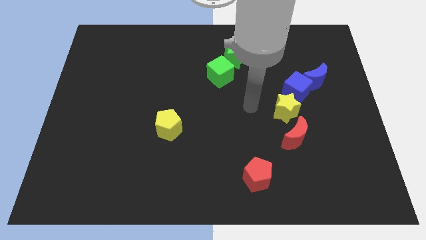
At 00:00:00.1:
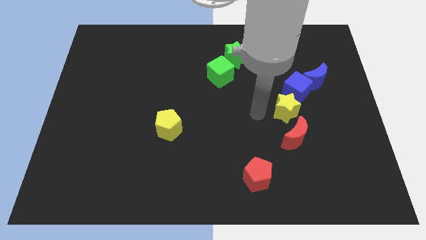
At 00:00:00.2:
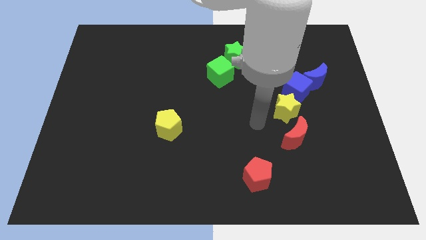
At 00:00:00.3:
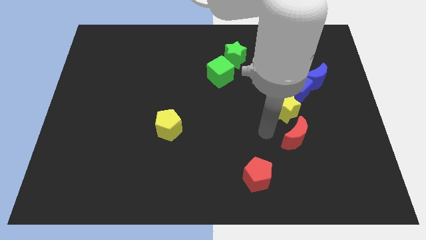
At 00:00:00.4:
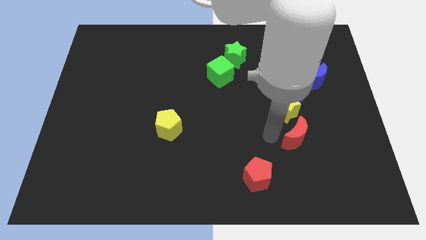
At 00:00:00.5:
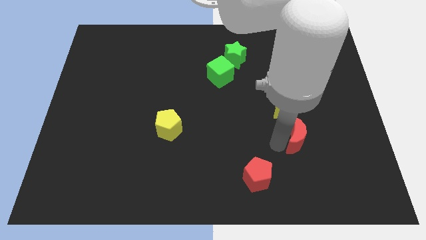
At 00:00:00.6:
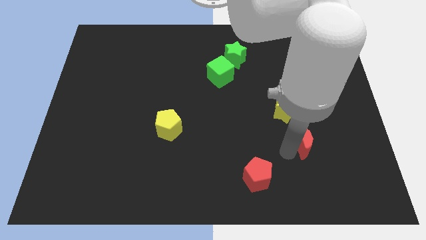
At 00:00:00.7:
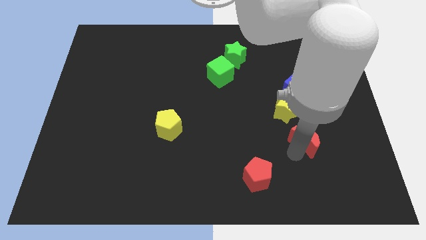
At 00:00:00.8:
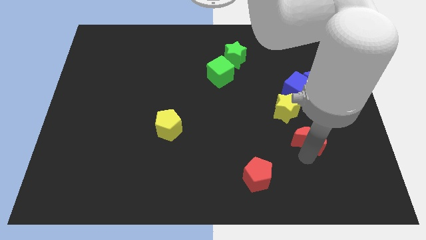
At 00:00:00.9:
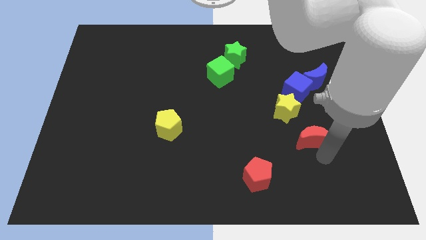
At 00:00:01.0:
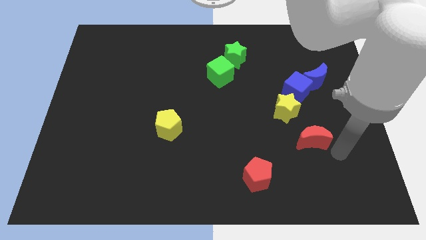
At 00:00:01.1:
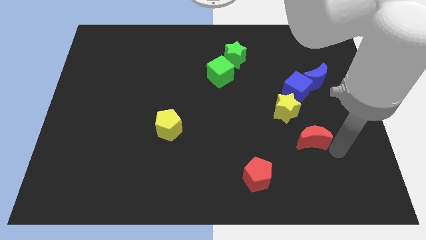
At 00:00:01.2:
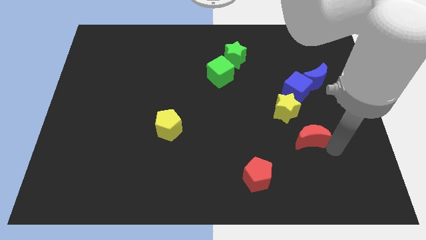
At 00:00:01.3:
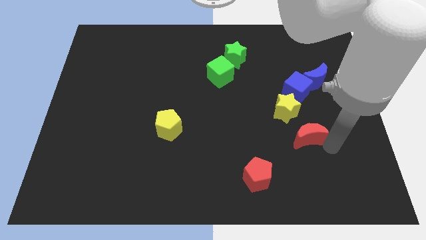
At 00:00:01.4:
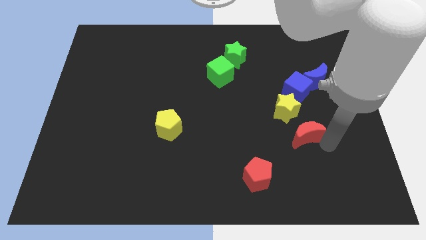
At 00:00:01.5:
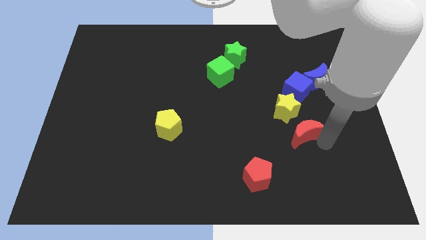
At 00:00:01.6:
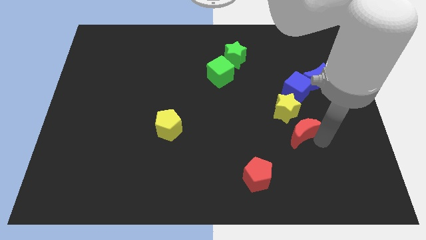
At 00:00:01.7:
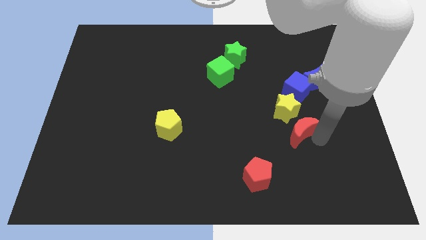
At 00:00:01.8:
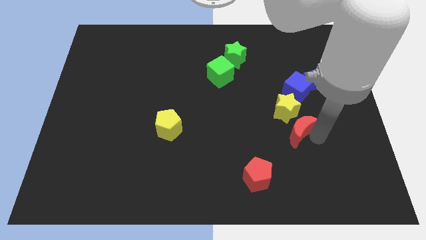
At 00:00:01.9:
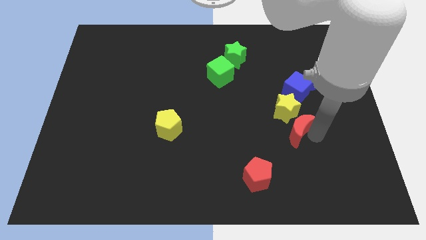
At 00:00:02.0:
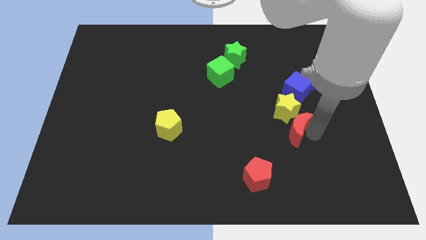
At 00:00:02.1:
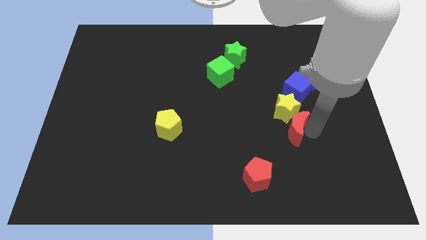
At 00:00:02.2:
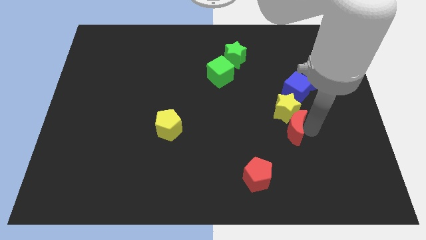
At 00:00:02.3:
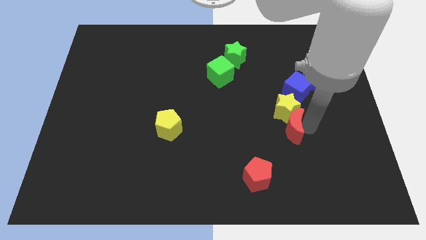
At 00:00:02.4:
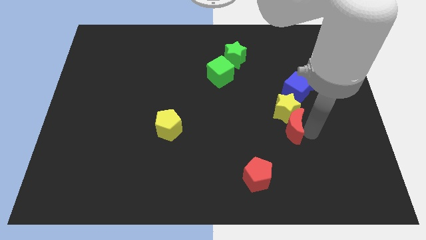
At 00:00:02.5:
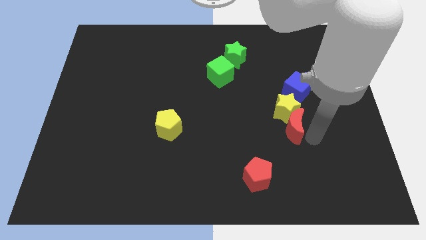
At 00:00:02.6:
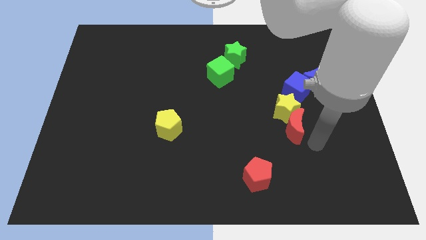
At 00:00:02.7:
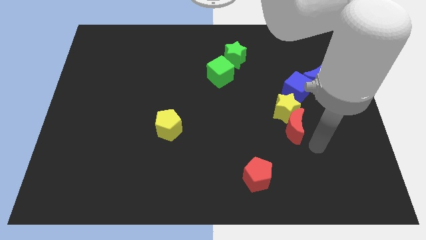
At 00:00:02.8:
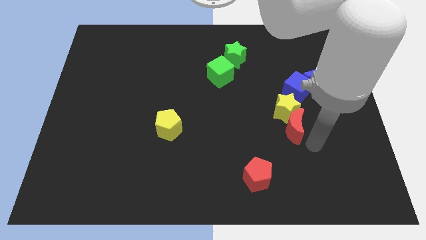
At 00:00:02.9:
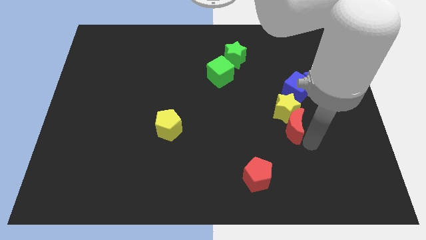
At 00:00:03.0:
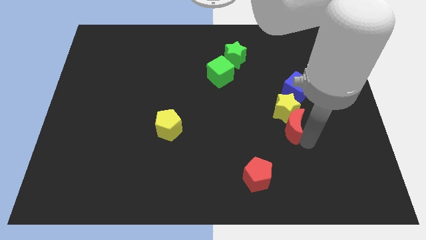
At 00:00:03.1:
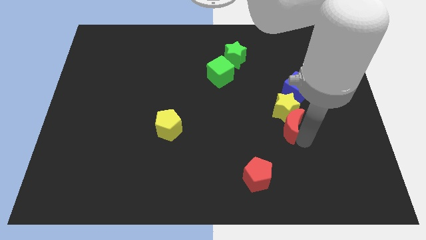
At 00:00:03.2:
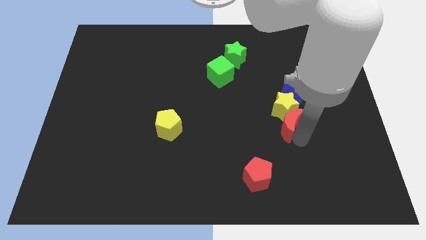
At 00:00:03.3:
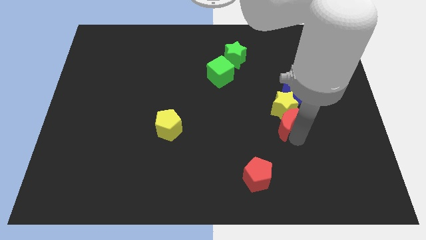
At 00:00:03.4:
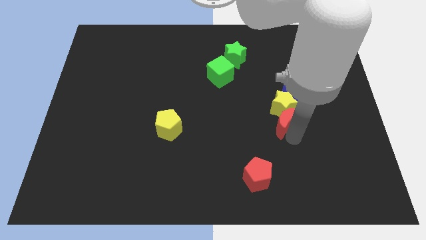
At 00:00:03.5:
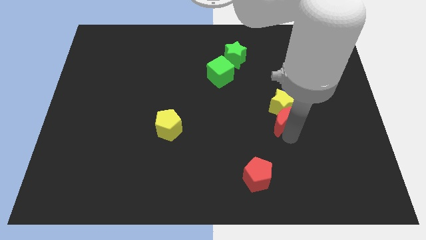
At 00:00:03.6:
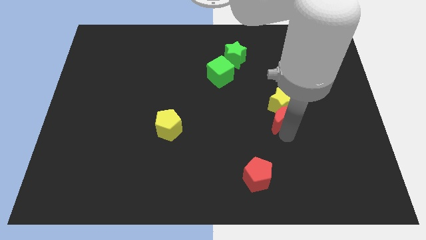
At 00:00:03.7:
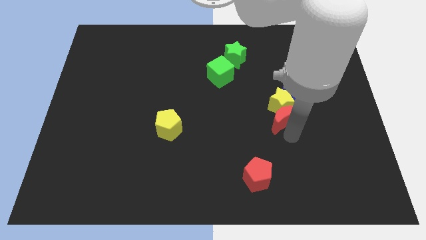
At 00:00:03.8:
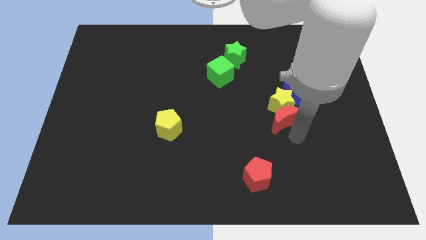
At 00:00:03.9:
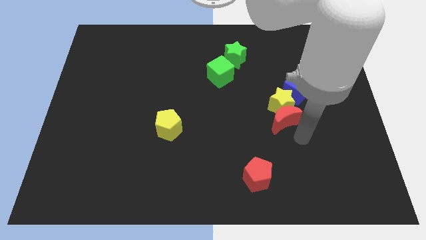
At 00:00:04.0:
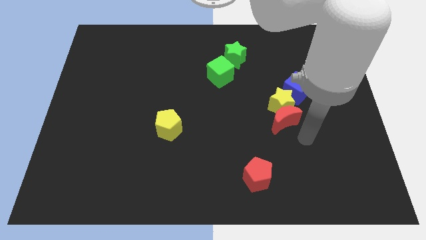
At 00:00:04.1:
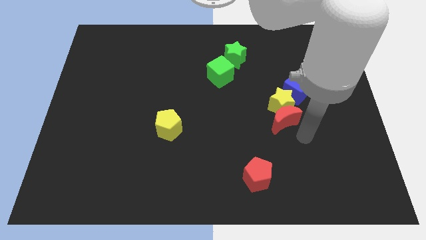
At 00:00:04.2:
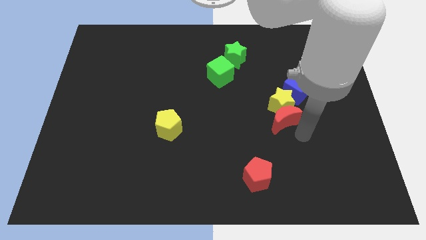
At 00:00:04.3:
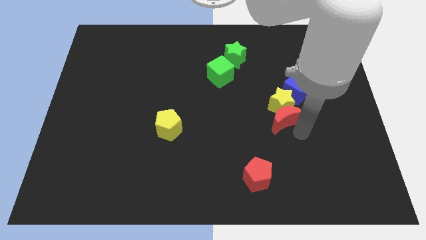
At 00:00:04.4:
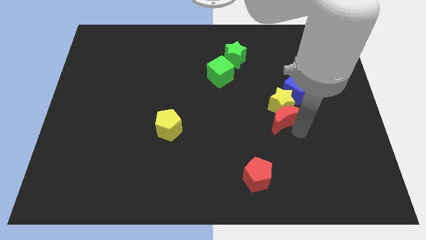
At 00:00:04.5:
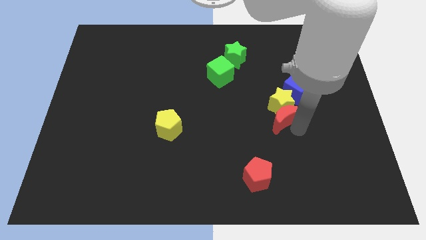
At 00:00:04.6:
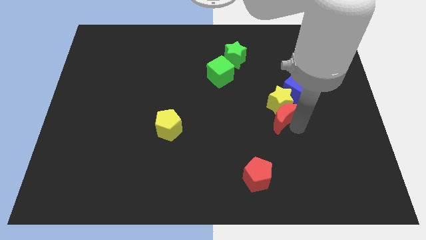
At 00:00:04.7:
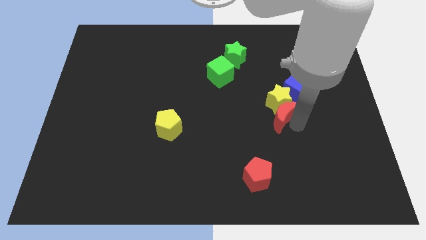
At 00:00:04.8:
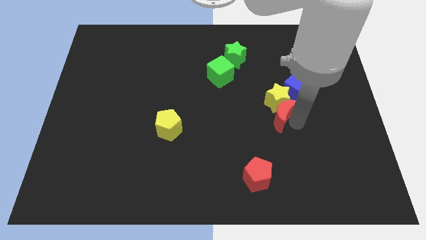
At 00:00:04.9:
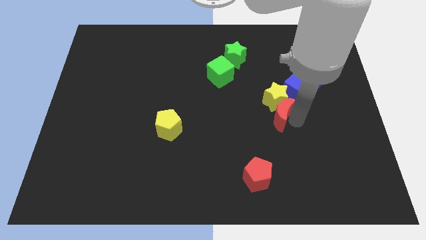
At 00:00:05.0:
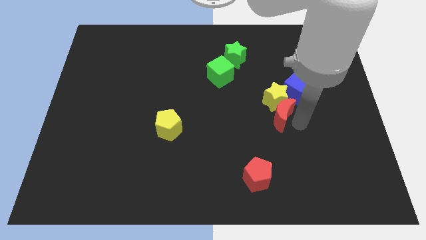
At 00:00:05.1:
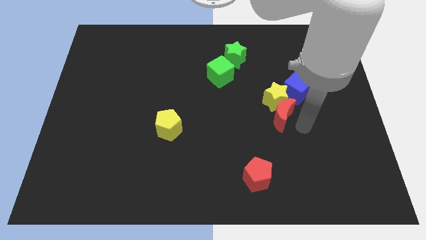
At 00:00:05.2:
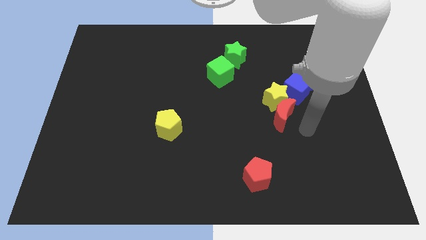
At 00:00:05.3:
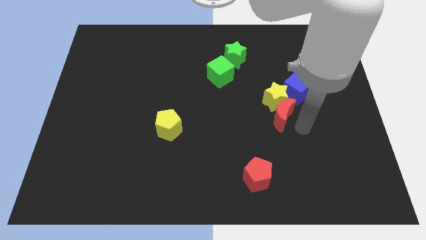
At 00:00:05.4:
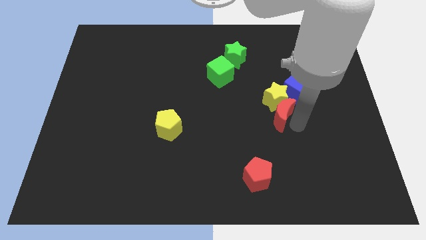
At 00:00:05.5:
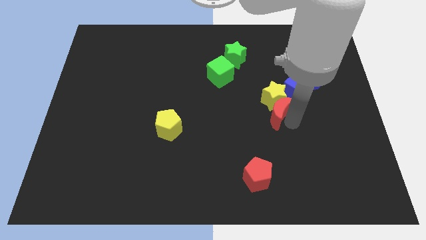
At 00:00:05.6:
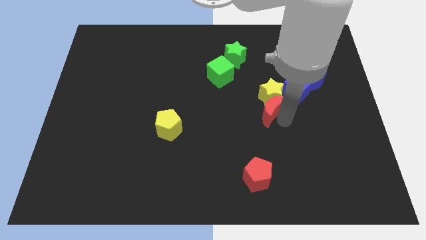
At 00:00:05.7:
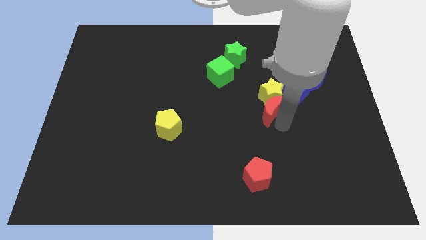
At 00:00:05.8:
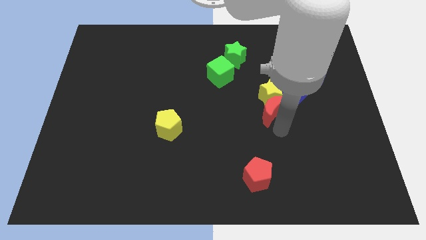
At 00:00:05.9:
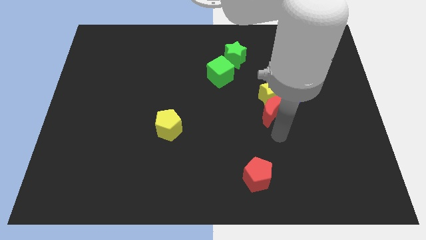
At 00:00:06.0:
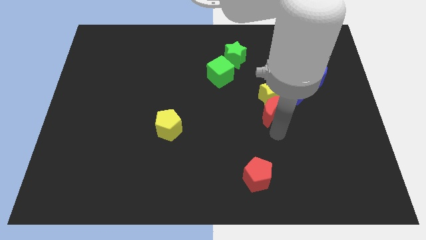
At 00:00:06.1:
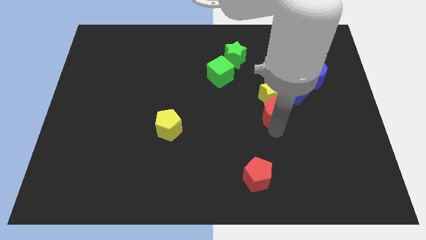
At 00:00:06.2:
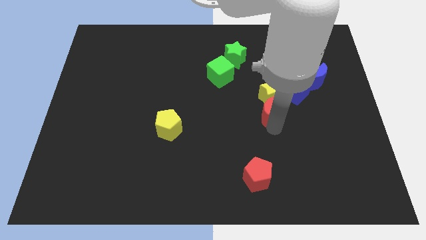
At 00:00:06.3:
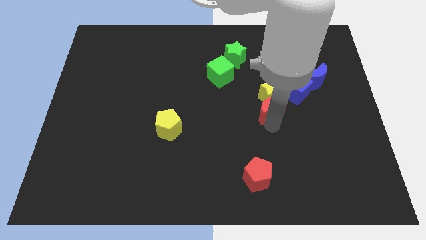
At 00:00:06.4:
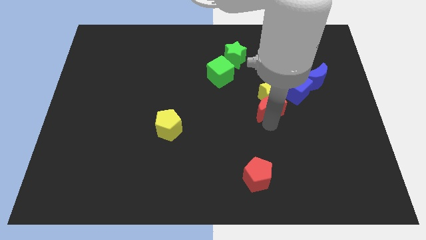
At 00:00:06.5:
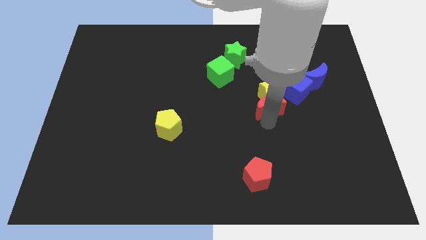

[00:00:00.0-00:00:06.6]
push the red moon up a bit

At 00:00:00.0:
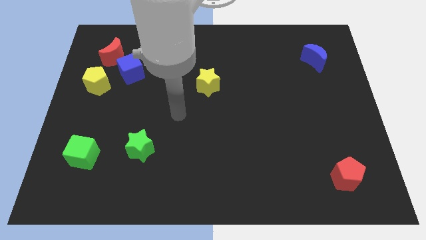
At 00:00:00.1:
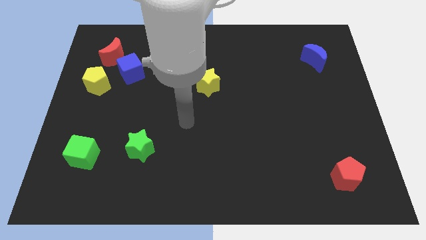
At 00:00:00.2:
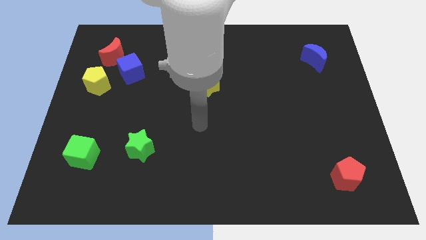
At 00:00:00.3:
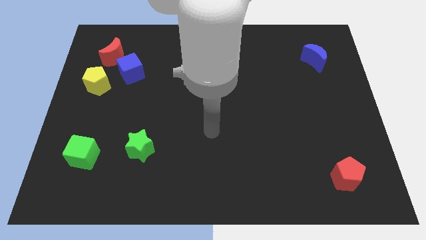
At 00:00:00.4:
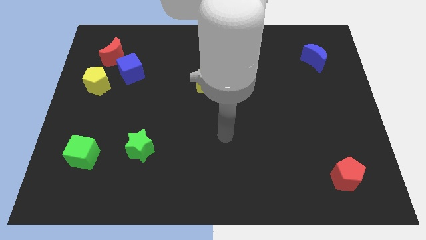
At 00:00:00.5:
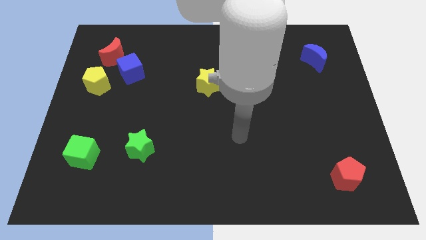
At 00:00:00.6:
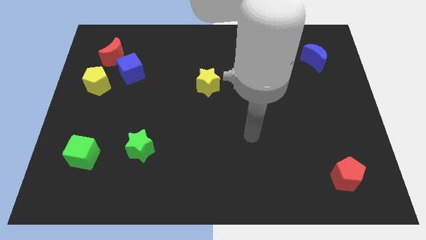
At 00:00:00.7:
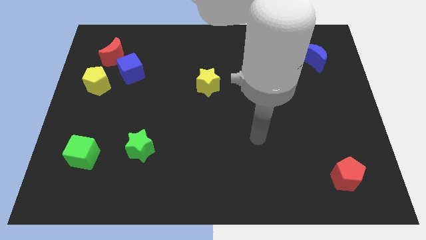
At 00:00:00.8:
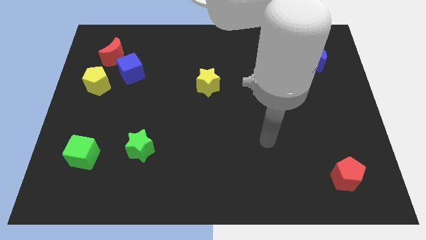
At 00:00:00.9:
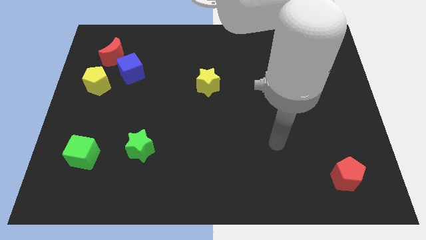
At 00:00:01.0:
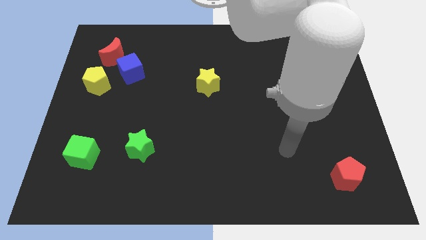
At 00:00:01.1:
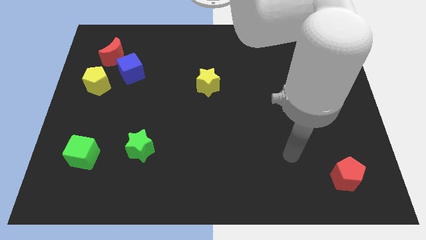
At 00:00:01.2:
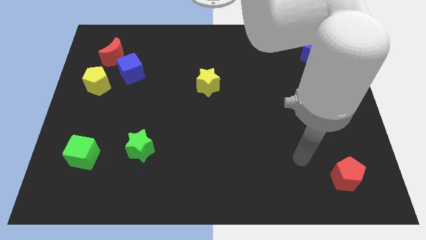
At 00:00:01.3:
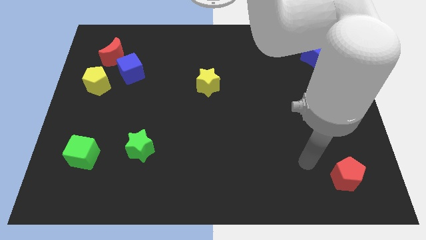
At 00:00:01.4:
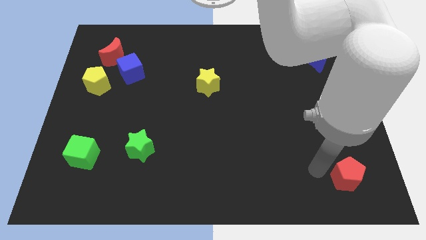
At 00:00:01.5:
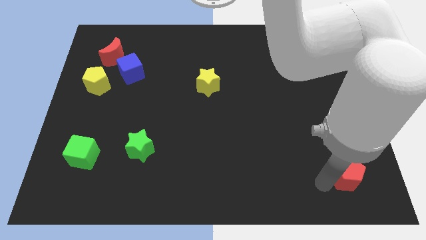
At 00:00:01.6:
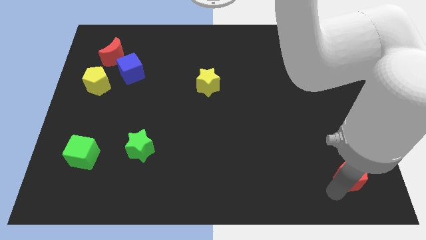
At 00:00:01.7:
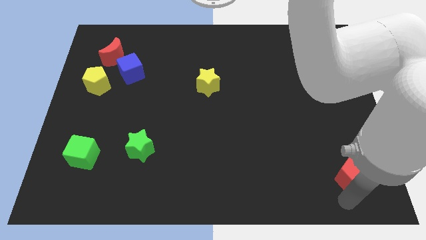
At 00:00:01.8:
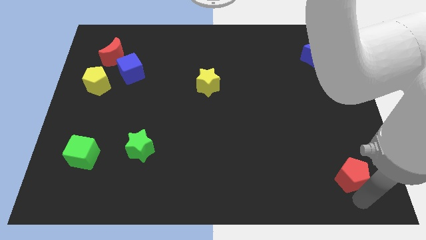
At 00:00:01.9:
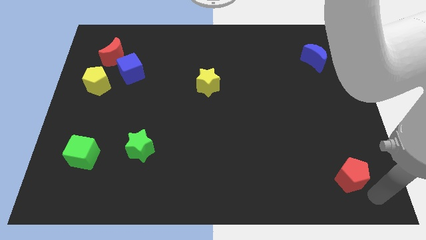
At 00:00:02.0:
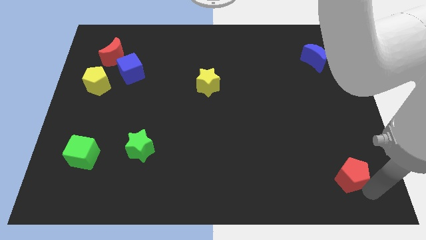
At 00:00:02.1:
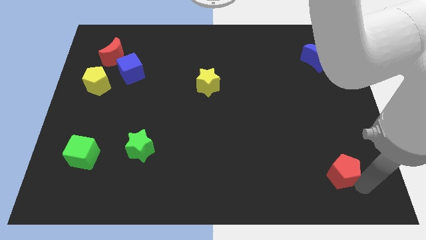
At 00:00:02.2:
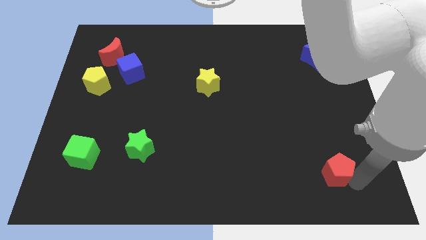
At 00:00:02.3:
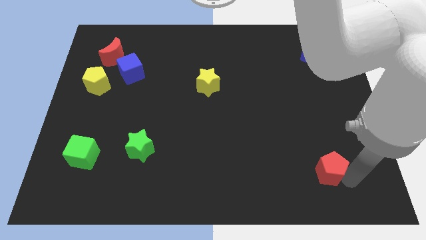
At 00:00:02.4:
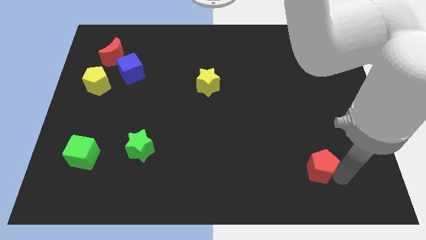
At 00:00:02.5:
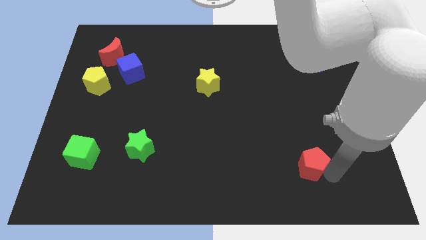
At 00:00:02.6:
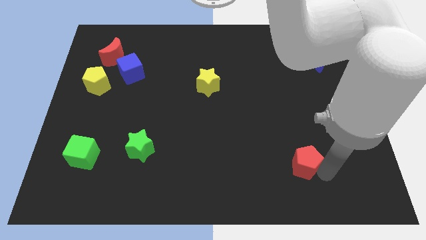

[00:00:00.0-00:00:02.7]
move the red pentagon upwards and left diagonally a little
